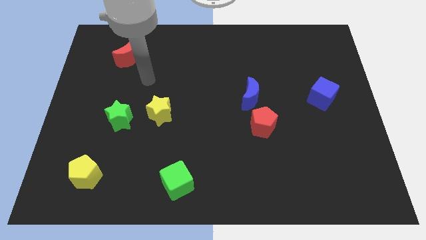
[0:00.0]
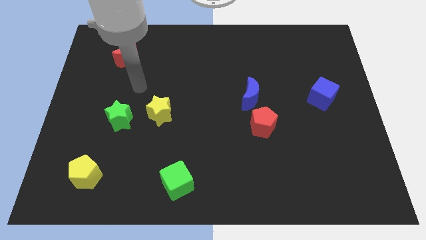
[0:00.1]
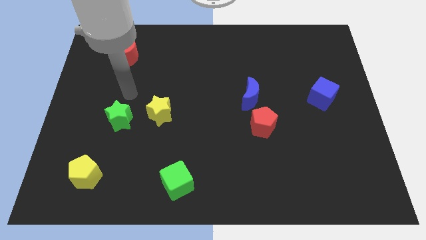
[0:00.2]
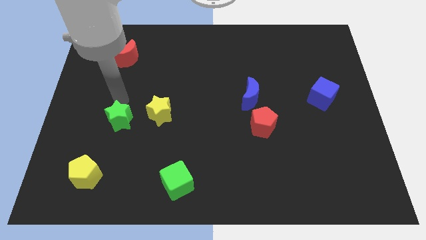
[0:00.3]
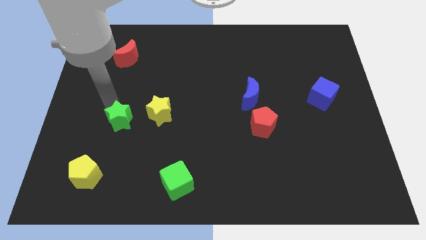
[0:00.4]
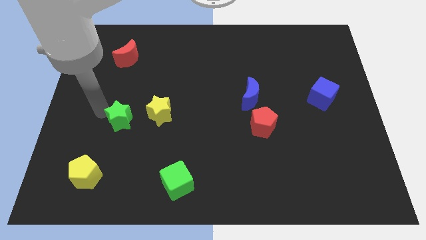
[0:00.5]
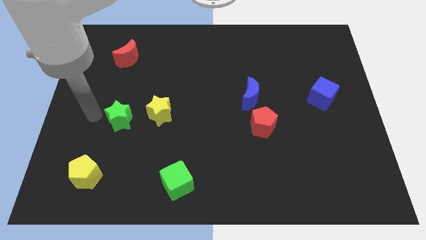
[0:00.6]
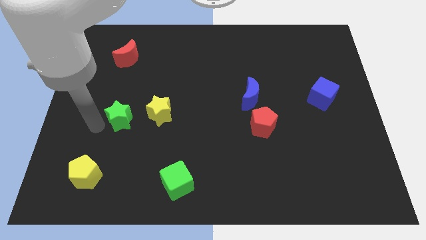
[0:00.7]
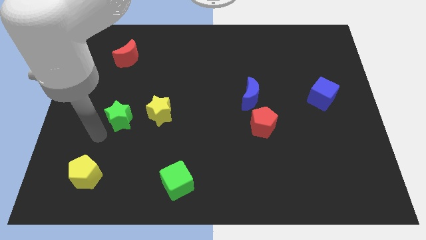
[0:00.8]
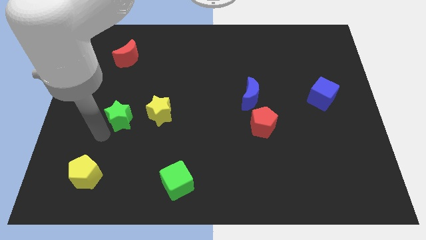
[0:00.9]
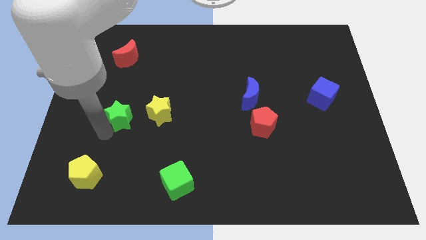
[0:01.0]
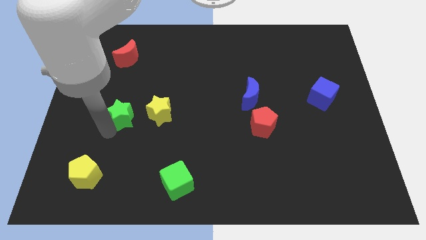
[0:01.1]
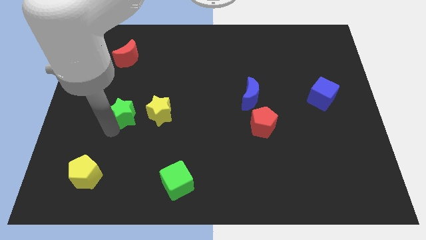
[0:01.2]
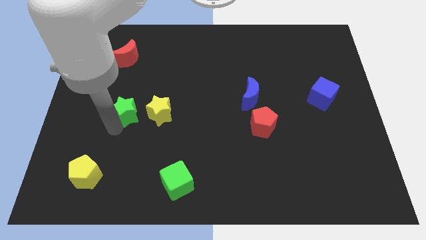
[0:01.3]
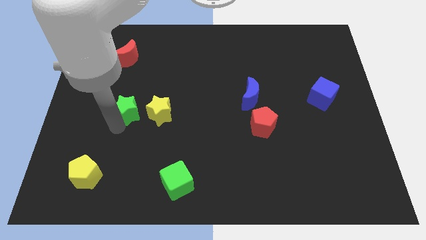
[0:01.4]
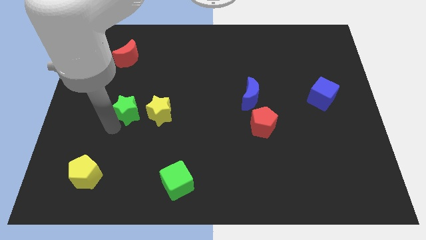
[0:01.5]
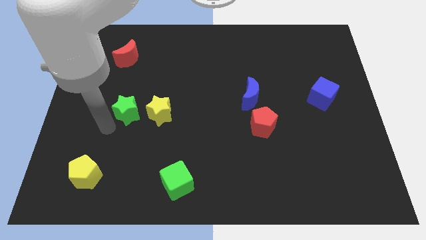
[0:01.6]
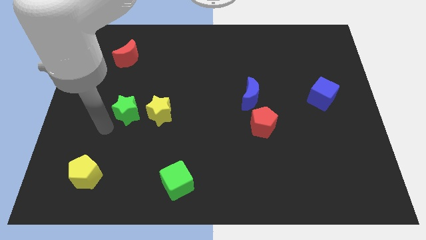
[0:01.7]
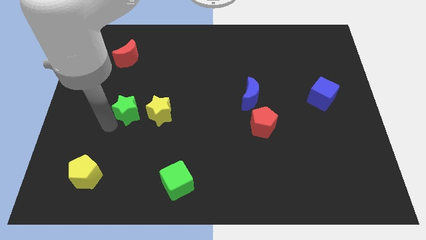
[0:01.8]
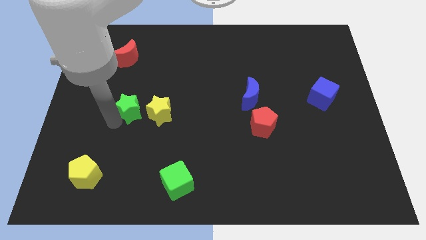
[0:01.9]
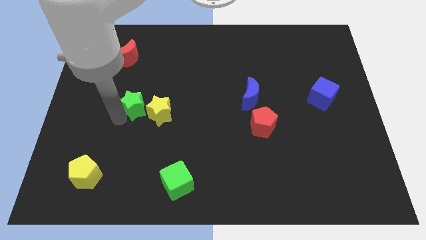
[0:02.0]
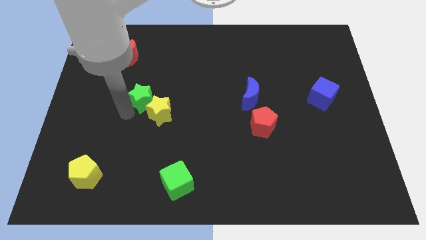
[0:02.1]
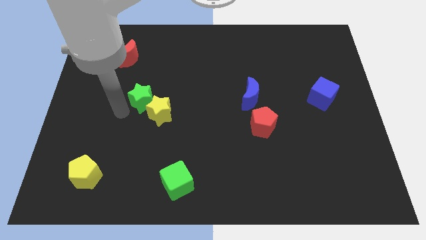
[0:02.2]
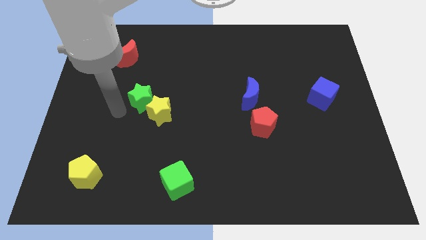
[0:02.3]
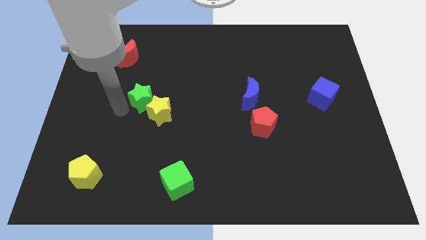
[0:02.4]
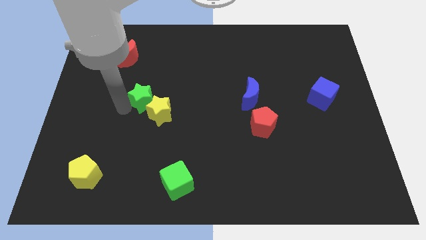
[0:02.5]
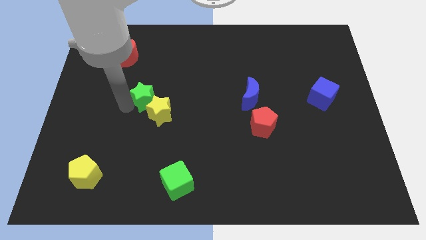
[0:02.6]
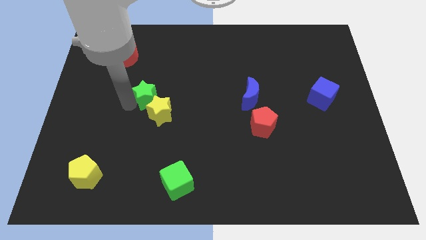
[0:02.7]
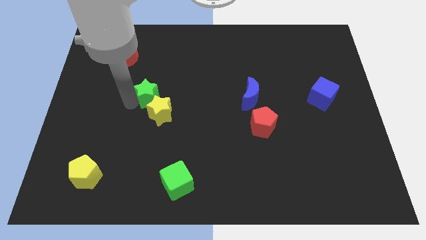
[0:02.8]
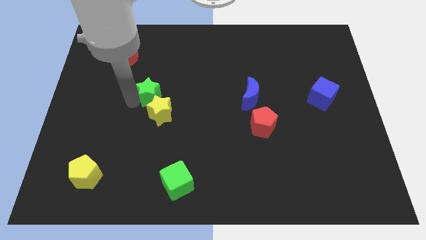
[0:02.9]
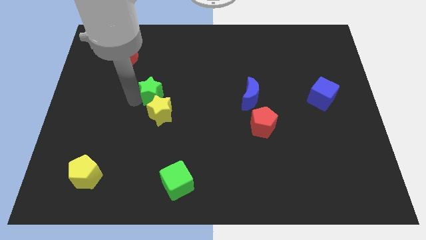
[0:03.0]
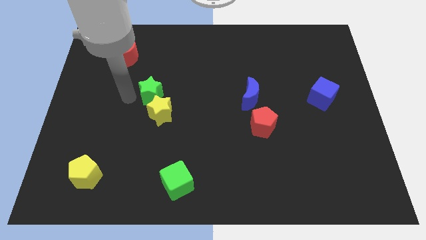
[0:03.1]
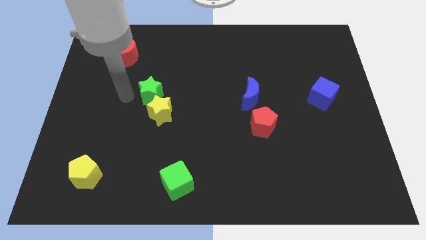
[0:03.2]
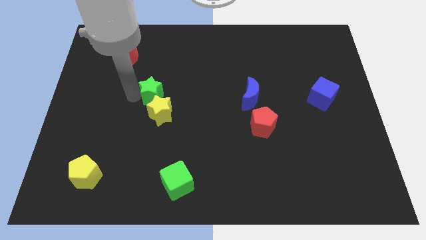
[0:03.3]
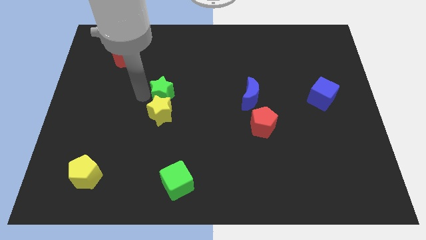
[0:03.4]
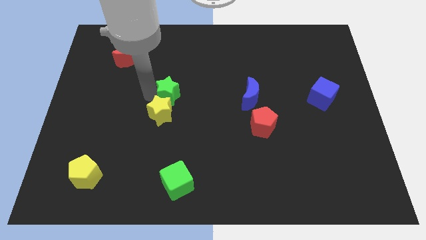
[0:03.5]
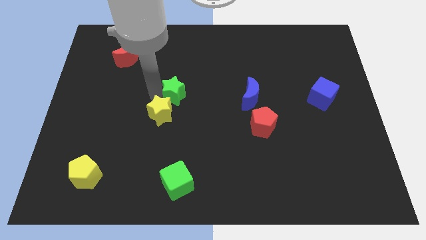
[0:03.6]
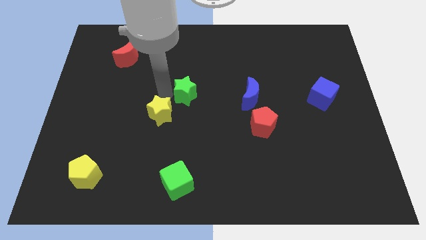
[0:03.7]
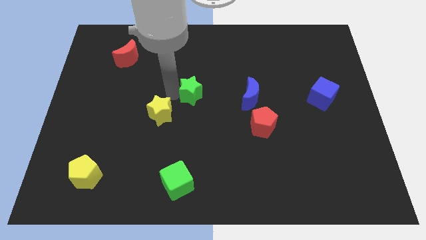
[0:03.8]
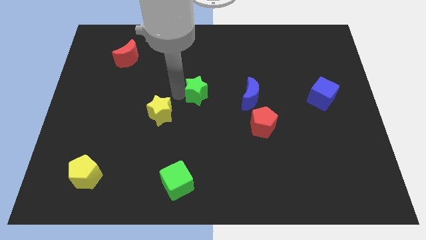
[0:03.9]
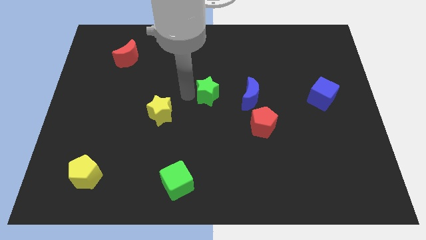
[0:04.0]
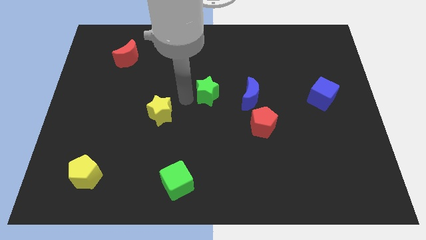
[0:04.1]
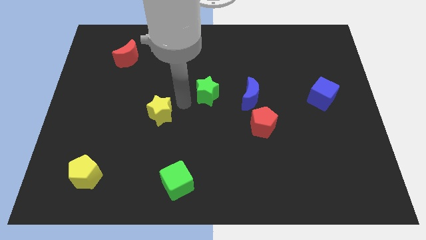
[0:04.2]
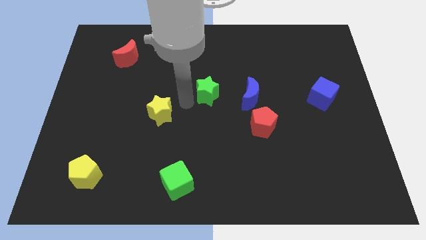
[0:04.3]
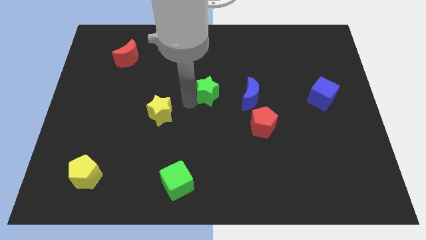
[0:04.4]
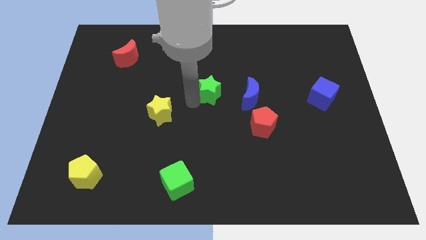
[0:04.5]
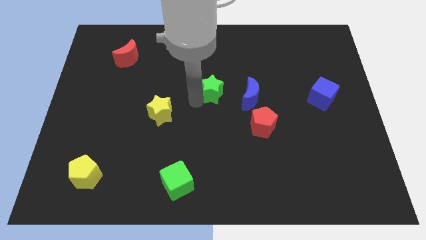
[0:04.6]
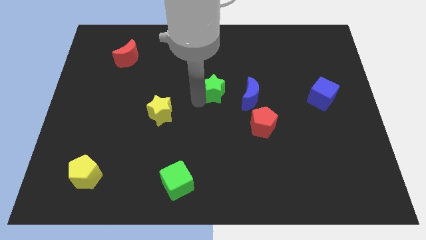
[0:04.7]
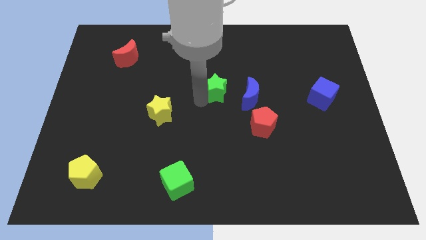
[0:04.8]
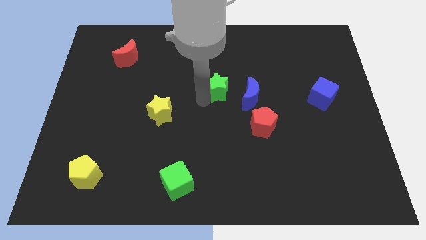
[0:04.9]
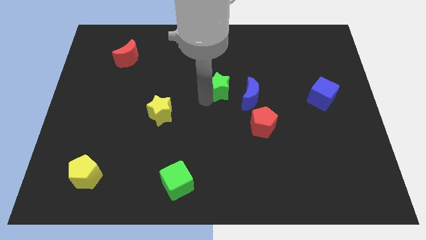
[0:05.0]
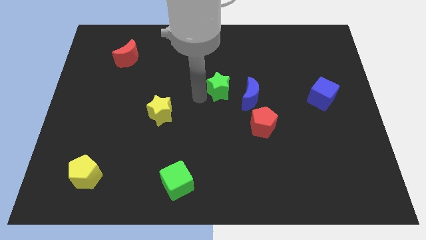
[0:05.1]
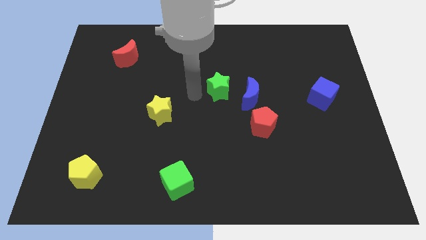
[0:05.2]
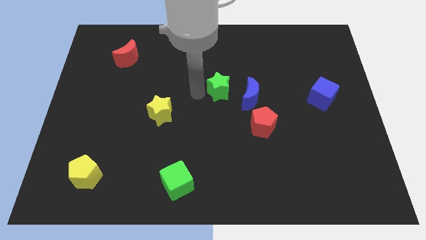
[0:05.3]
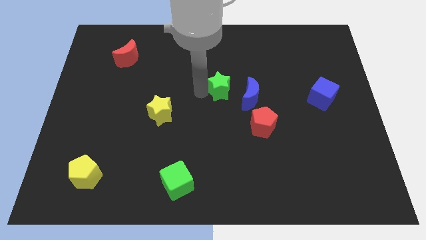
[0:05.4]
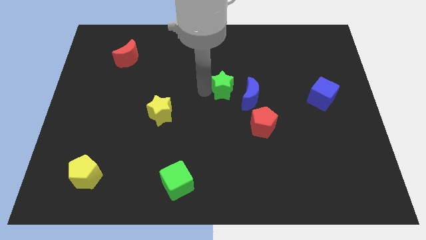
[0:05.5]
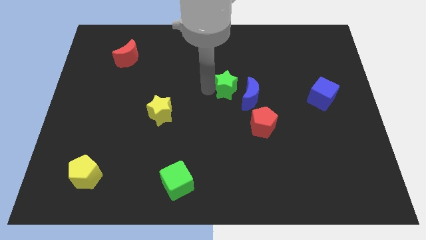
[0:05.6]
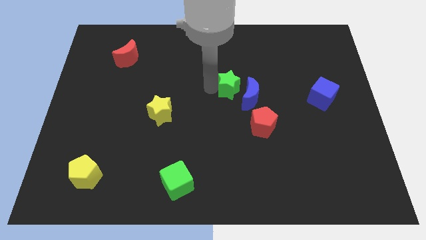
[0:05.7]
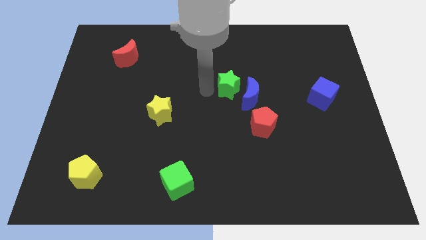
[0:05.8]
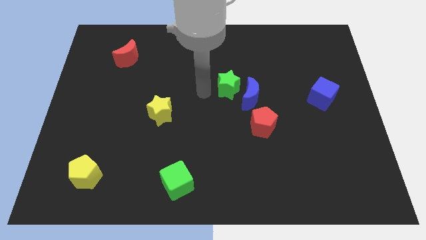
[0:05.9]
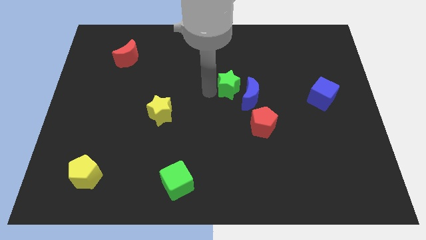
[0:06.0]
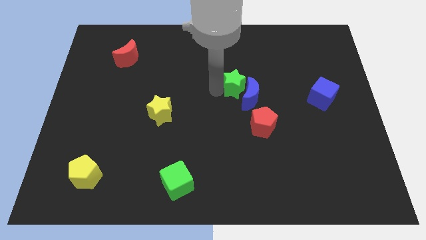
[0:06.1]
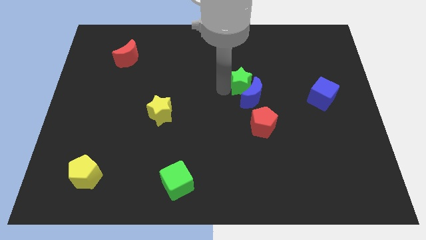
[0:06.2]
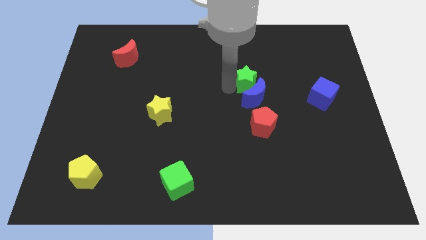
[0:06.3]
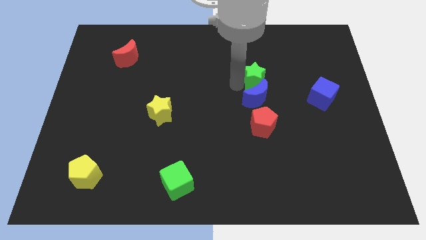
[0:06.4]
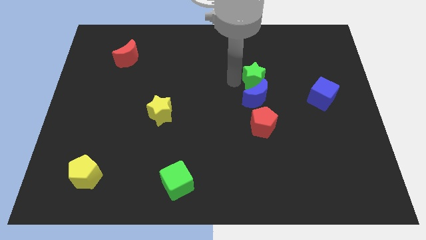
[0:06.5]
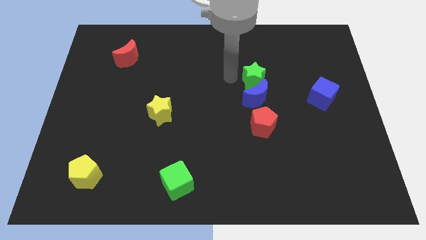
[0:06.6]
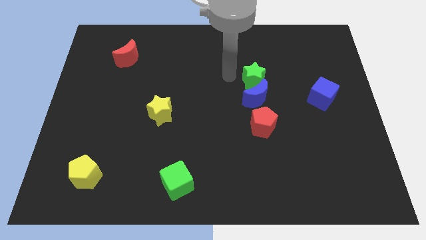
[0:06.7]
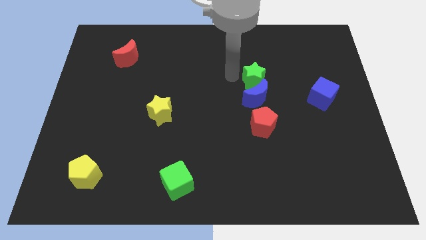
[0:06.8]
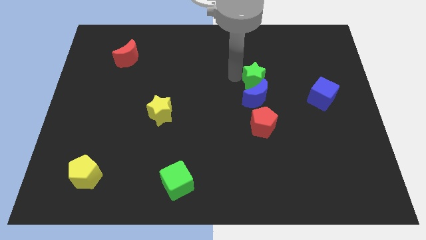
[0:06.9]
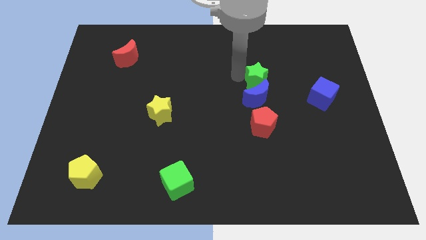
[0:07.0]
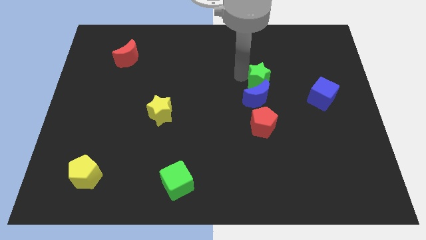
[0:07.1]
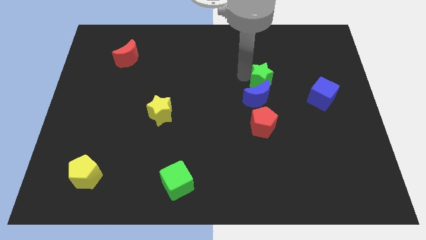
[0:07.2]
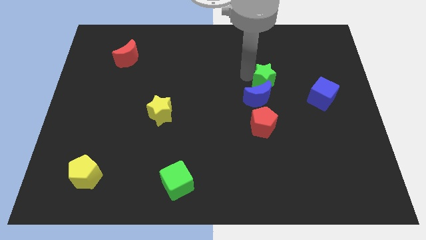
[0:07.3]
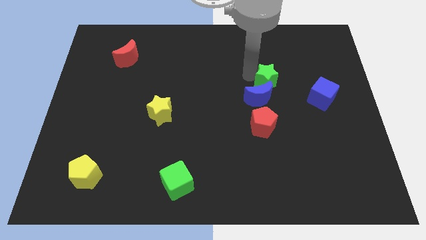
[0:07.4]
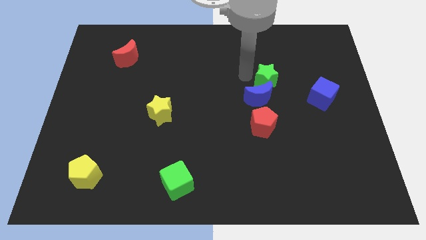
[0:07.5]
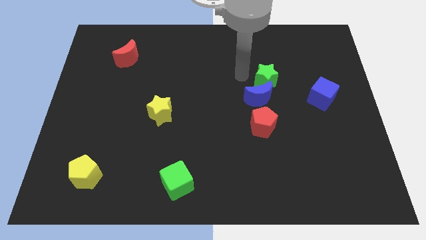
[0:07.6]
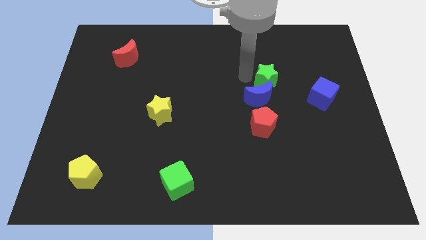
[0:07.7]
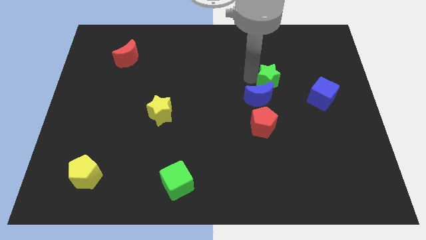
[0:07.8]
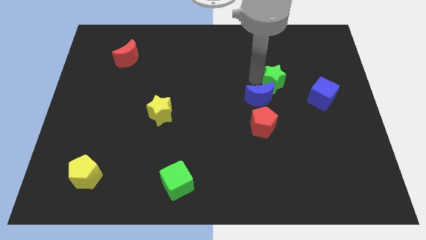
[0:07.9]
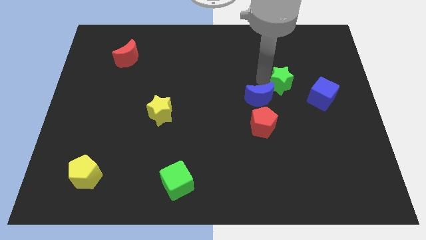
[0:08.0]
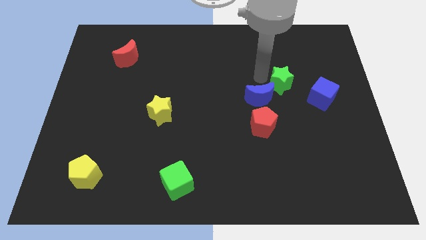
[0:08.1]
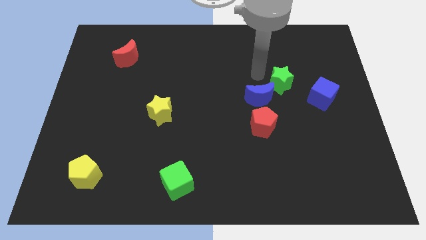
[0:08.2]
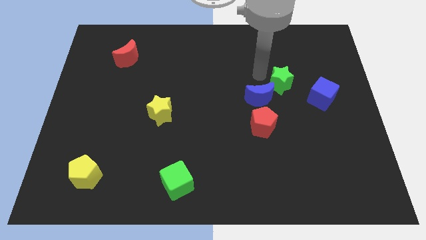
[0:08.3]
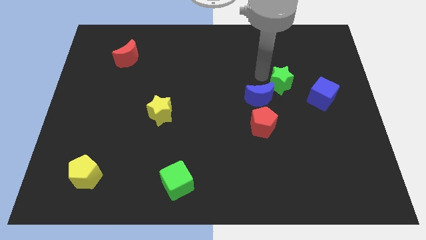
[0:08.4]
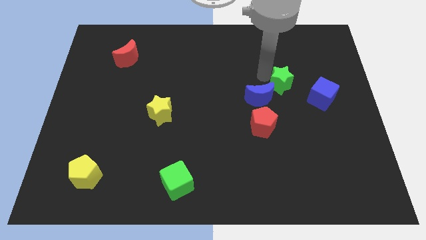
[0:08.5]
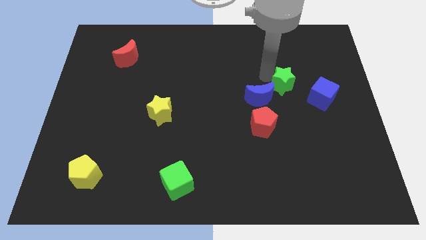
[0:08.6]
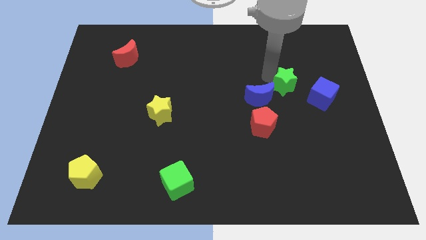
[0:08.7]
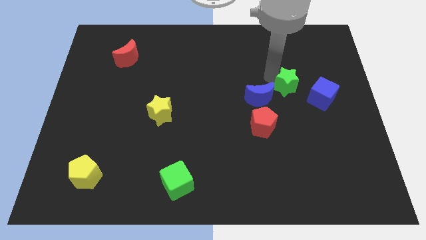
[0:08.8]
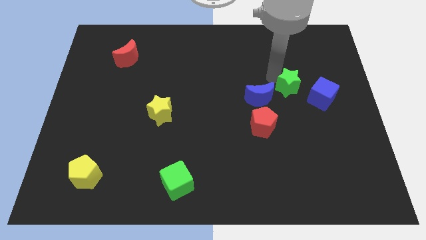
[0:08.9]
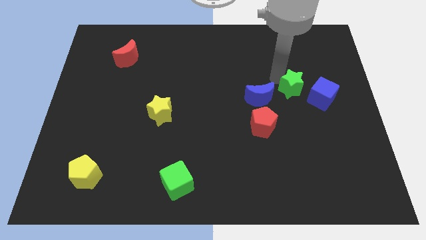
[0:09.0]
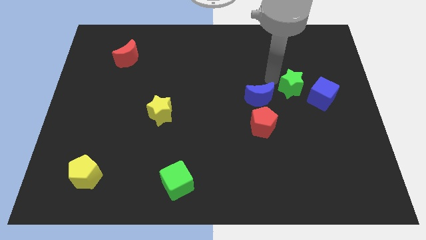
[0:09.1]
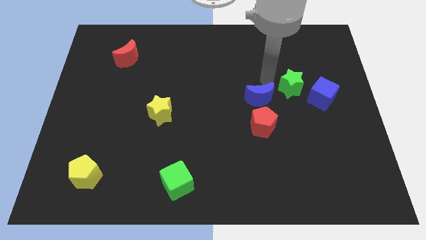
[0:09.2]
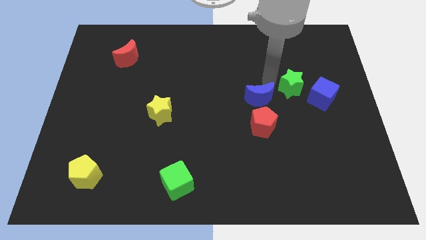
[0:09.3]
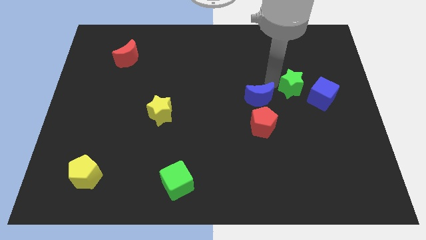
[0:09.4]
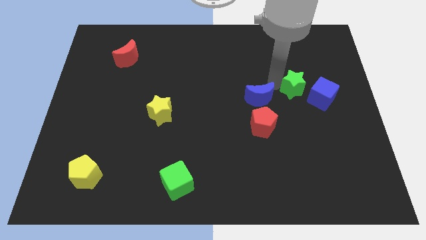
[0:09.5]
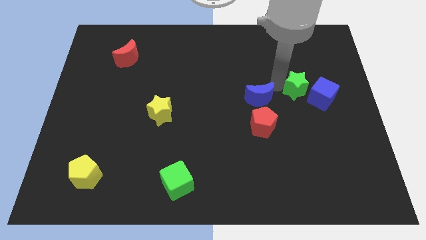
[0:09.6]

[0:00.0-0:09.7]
slide the green star towards the blue cube
